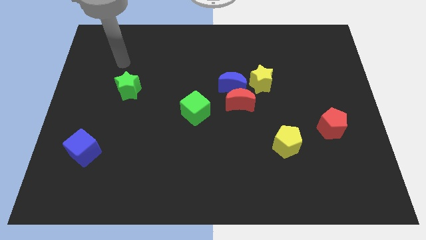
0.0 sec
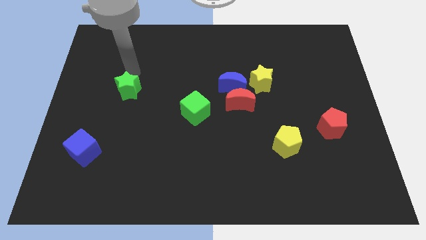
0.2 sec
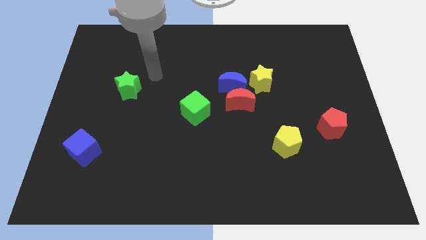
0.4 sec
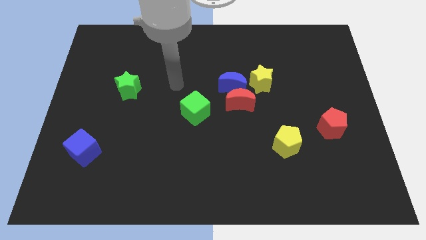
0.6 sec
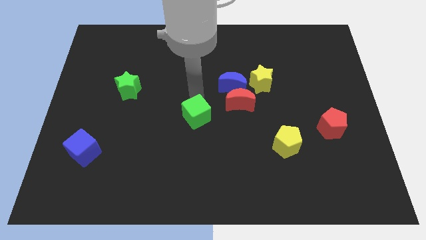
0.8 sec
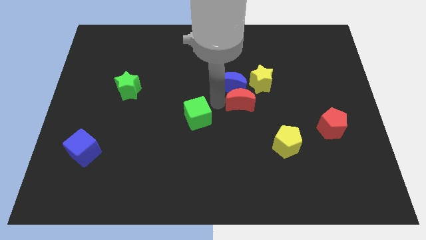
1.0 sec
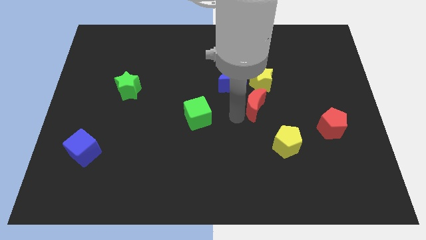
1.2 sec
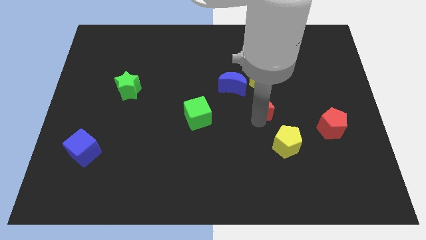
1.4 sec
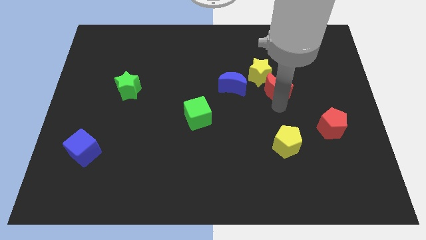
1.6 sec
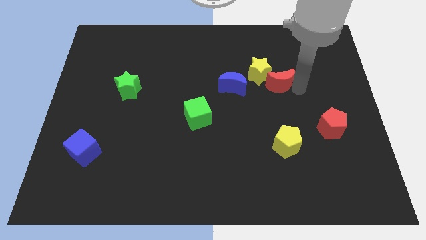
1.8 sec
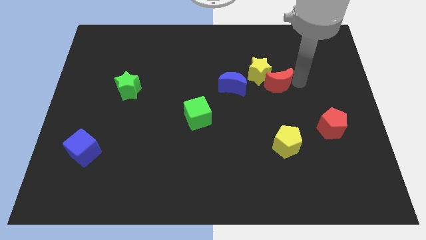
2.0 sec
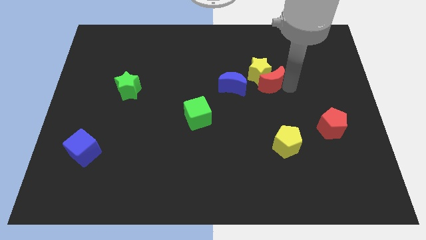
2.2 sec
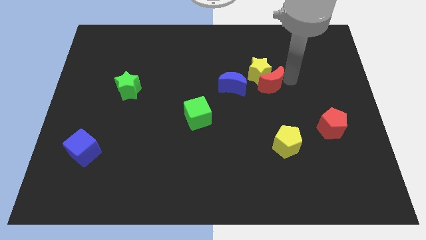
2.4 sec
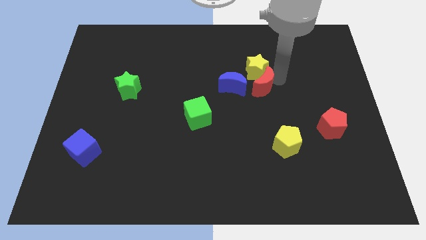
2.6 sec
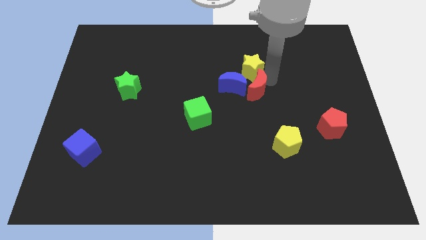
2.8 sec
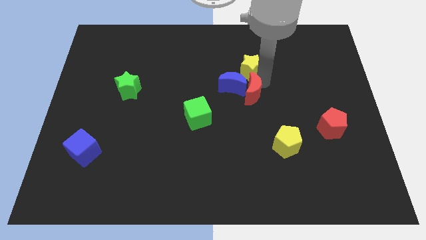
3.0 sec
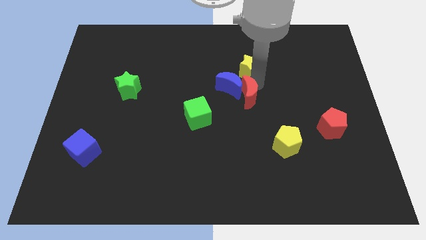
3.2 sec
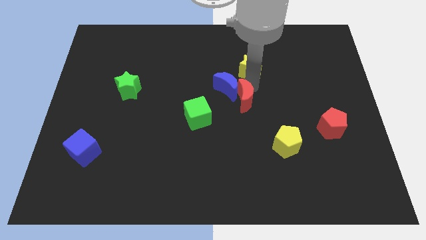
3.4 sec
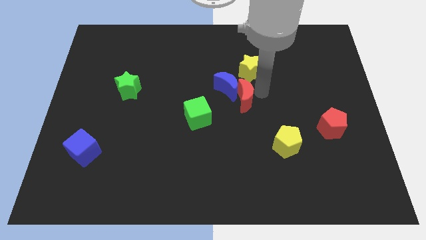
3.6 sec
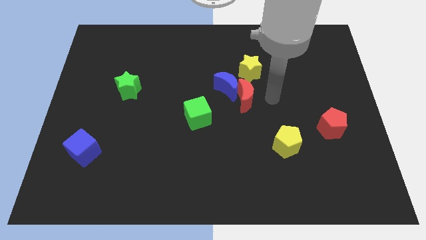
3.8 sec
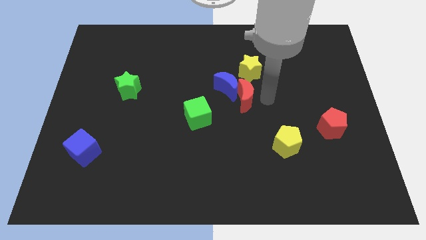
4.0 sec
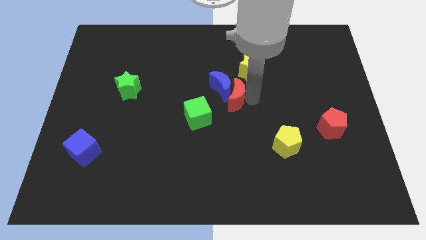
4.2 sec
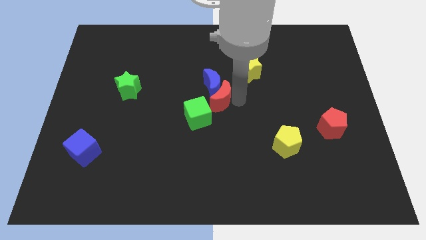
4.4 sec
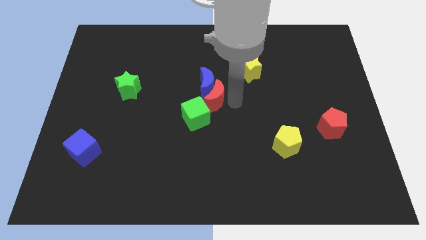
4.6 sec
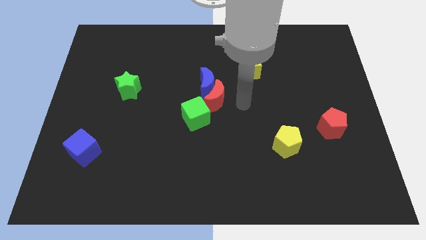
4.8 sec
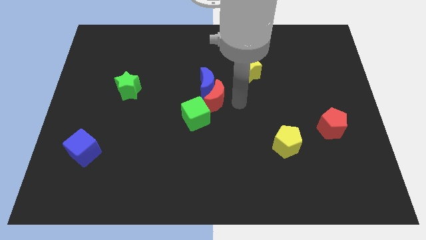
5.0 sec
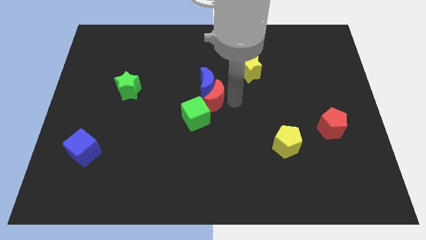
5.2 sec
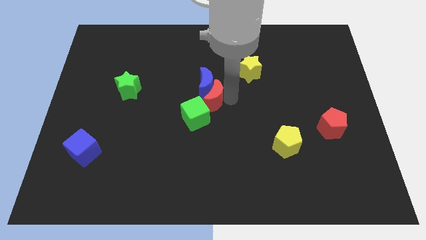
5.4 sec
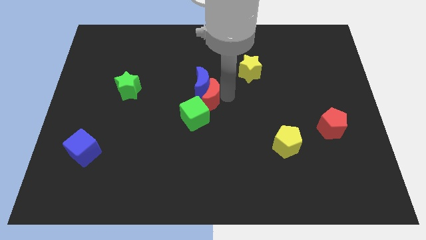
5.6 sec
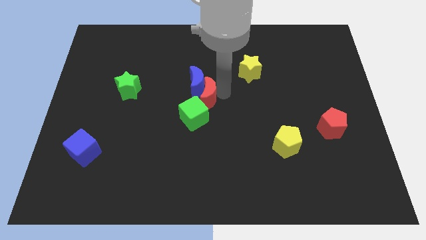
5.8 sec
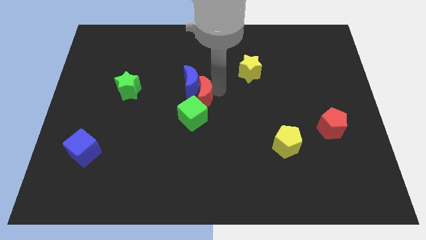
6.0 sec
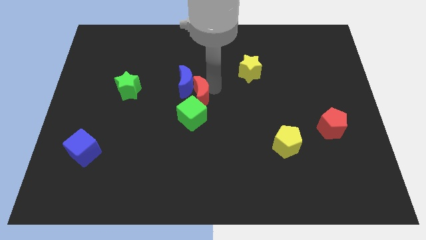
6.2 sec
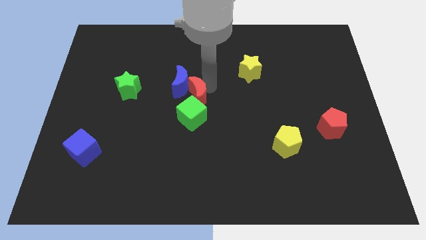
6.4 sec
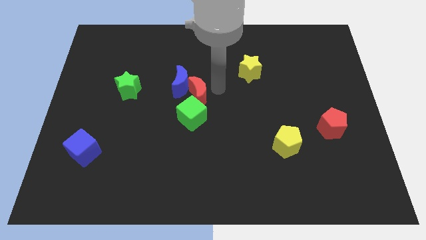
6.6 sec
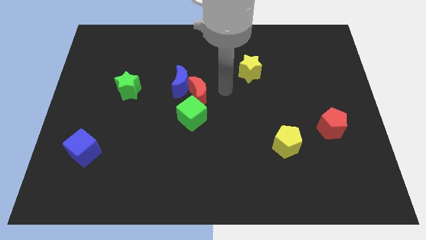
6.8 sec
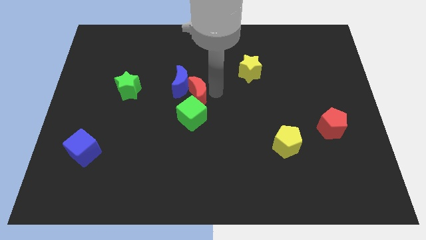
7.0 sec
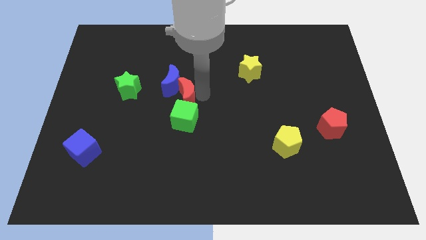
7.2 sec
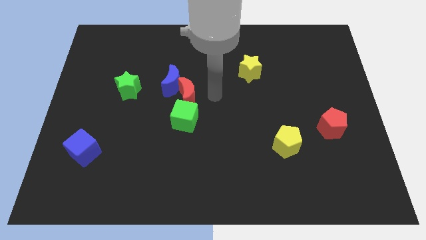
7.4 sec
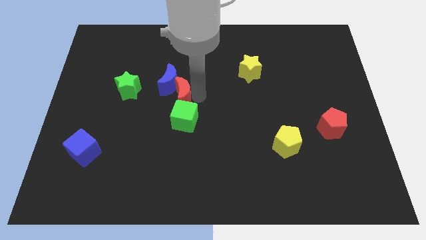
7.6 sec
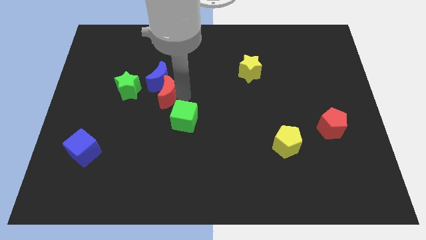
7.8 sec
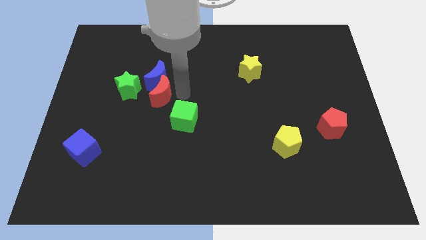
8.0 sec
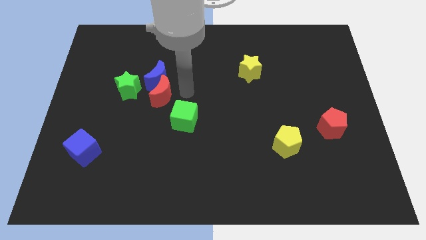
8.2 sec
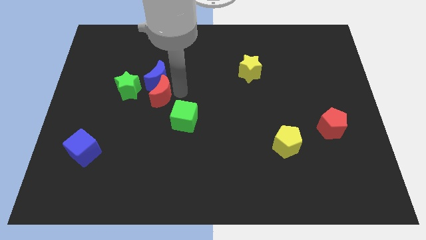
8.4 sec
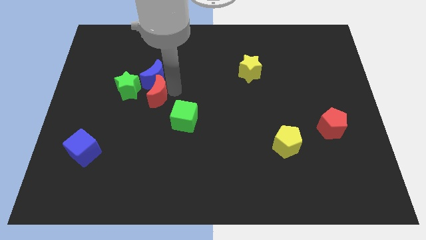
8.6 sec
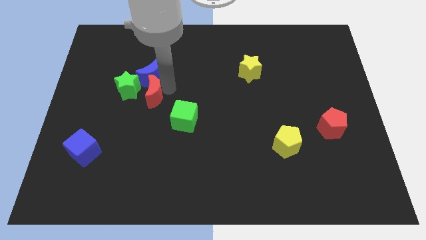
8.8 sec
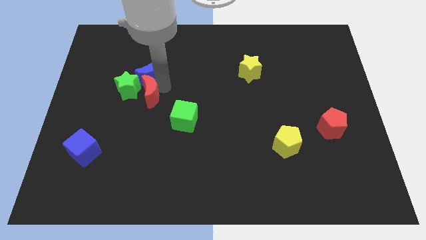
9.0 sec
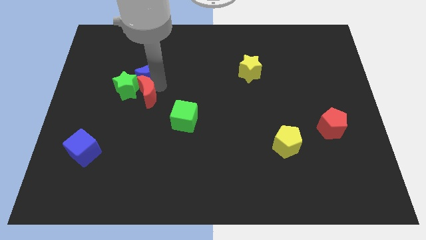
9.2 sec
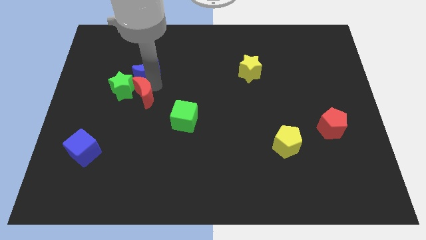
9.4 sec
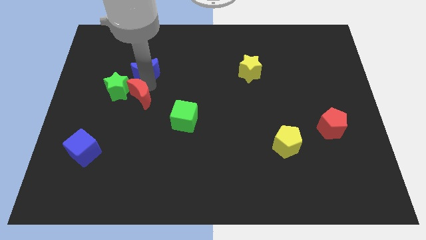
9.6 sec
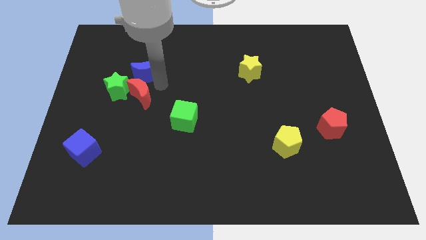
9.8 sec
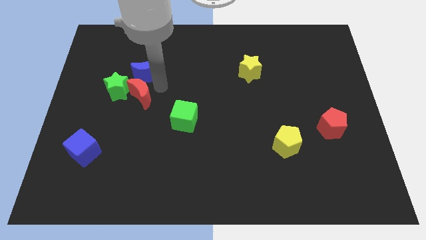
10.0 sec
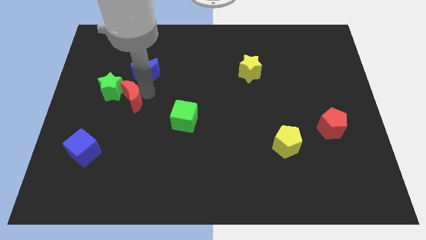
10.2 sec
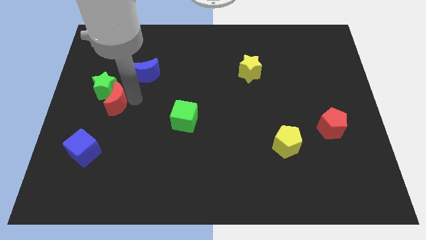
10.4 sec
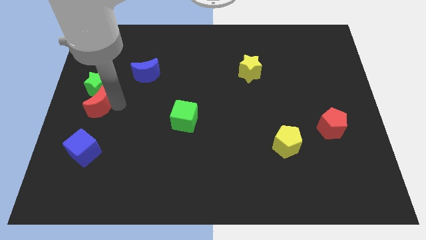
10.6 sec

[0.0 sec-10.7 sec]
move the red moon to the center left

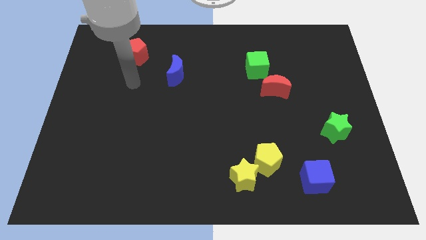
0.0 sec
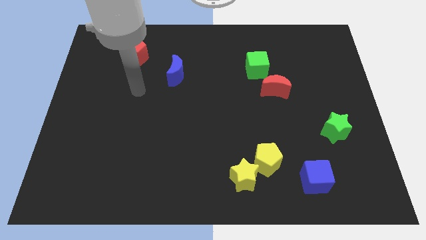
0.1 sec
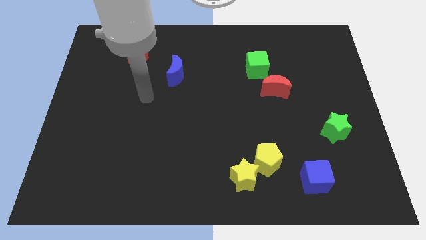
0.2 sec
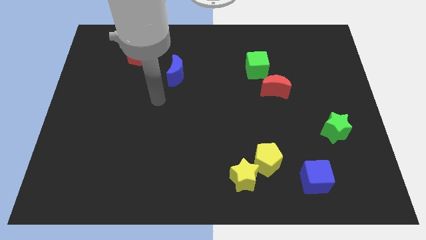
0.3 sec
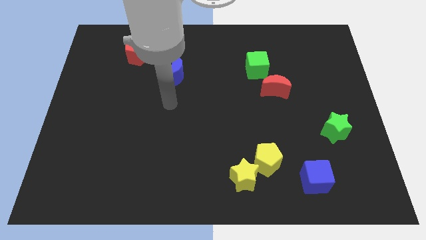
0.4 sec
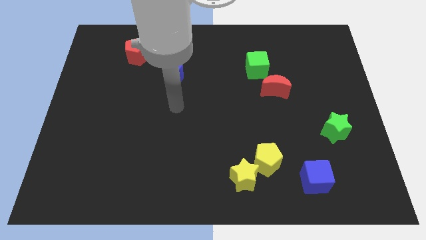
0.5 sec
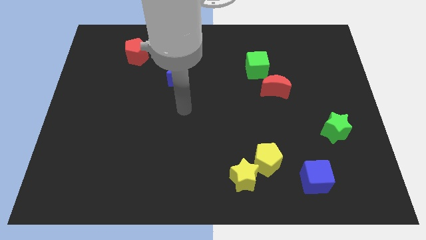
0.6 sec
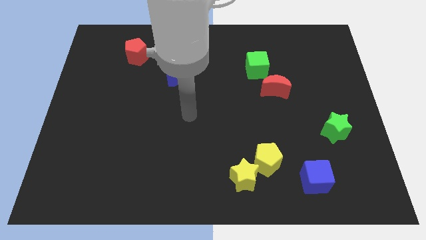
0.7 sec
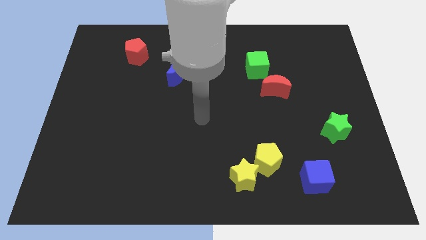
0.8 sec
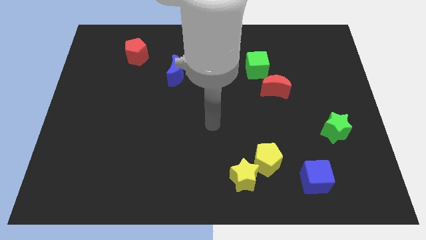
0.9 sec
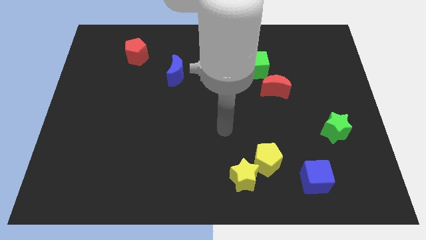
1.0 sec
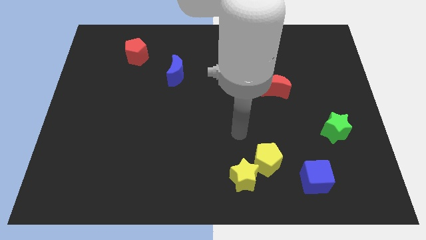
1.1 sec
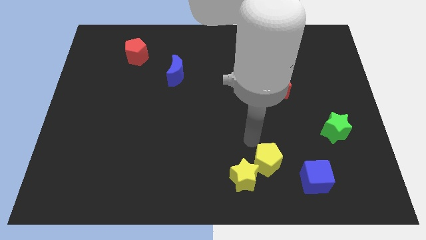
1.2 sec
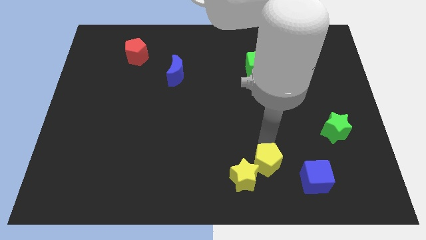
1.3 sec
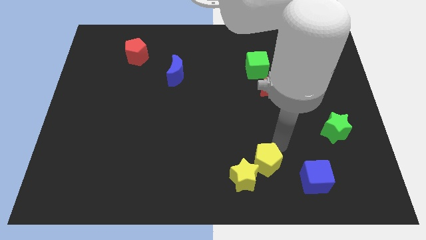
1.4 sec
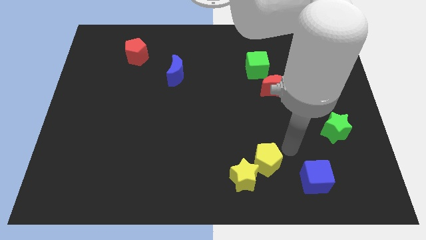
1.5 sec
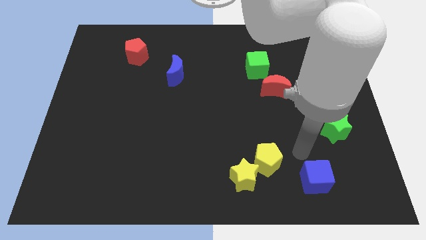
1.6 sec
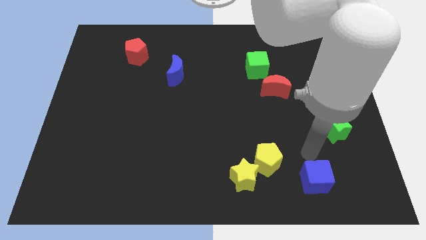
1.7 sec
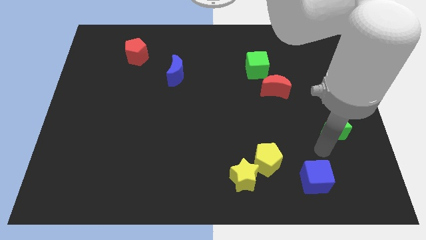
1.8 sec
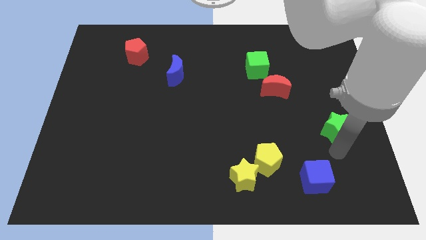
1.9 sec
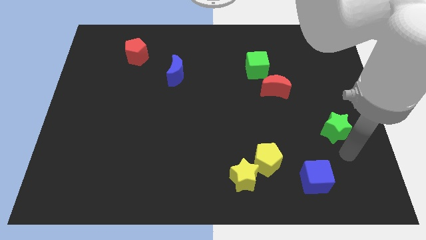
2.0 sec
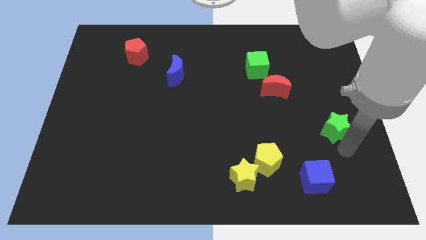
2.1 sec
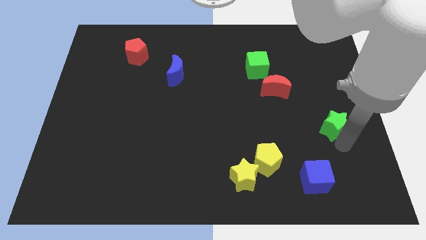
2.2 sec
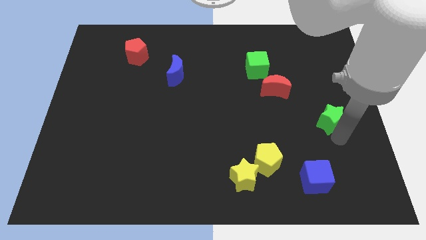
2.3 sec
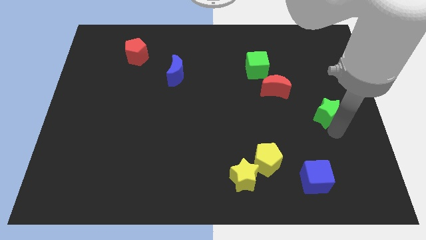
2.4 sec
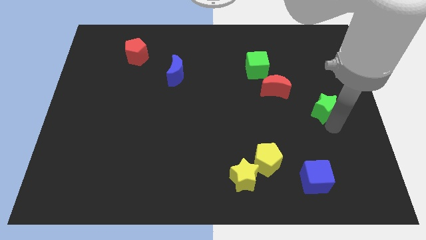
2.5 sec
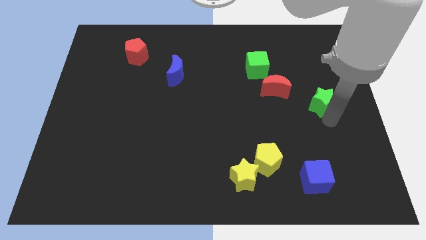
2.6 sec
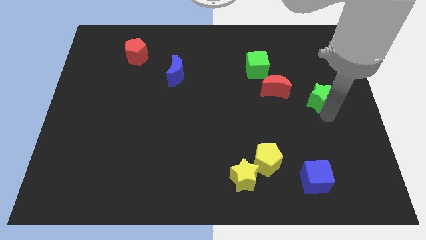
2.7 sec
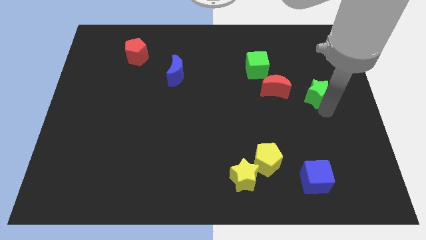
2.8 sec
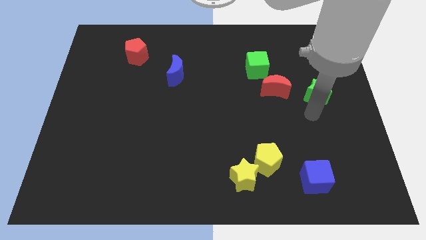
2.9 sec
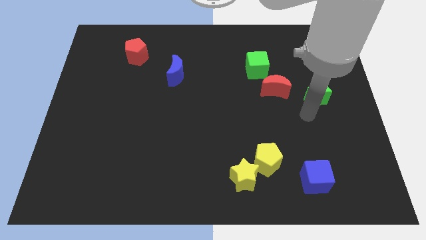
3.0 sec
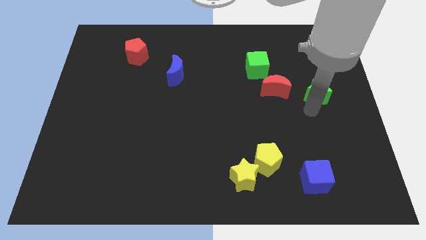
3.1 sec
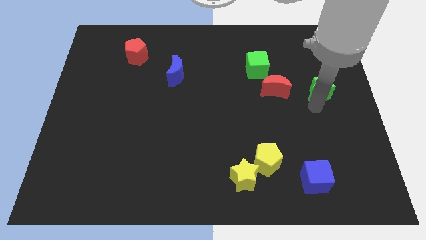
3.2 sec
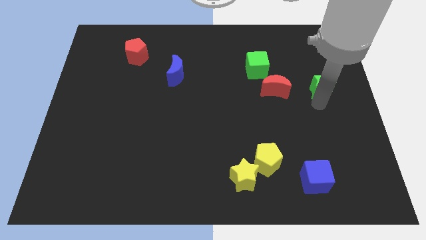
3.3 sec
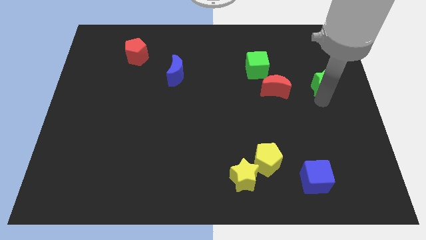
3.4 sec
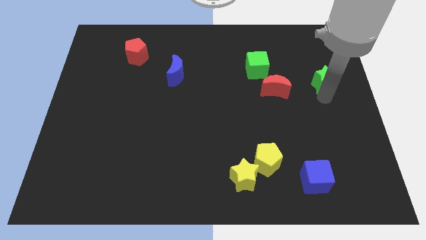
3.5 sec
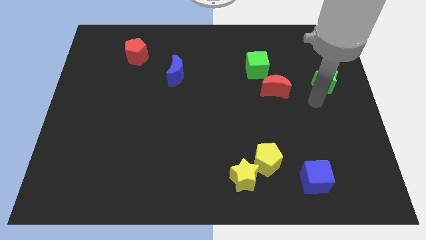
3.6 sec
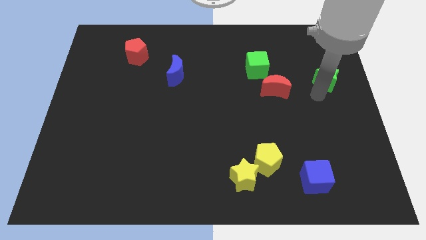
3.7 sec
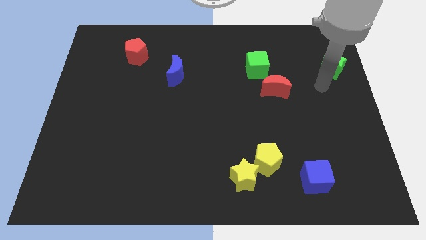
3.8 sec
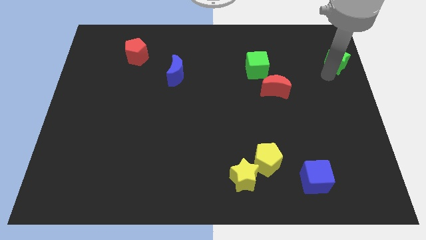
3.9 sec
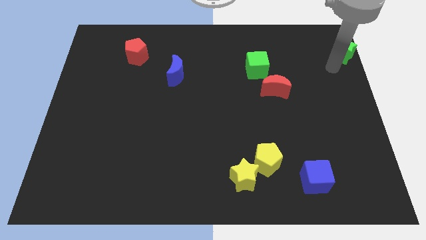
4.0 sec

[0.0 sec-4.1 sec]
put the green star to the top right
